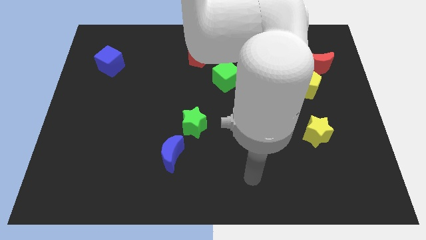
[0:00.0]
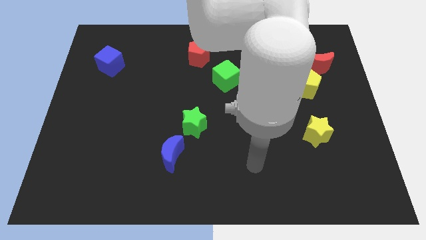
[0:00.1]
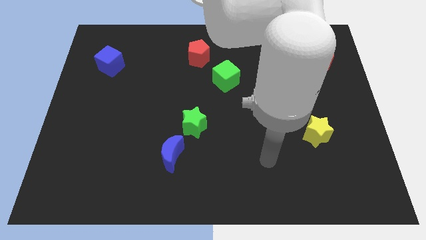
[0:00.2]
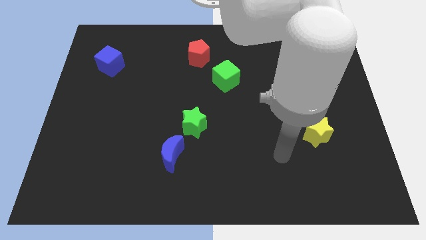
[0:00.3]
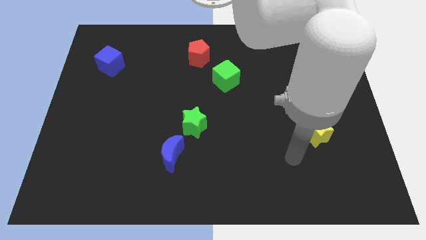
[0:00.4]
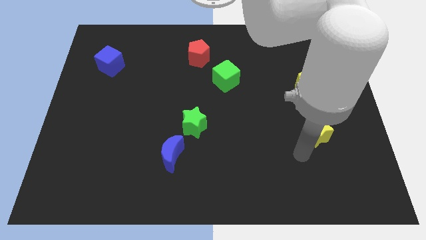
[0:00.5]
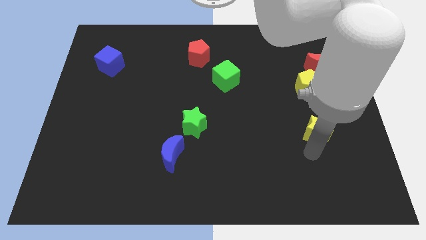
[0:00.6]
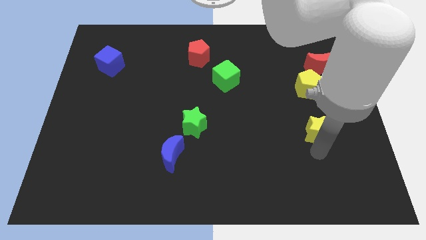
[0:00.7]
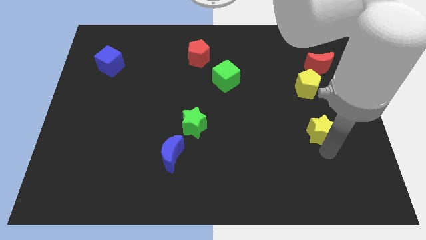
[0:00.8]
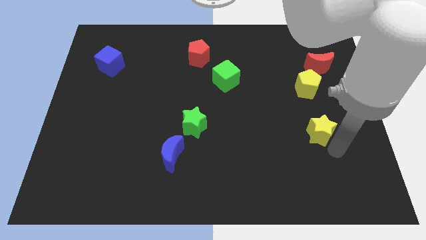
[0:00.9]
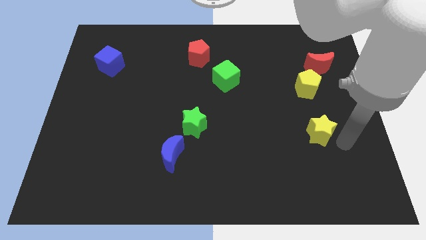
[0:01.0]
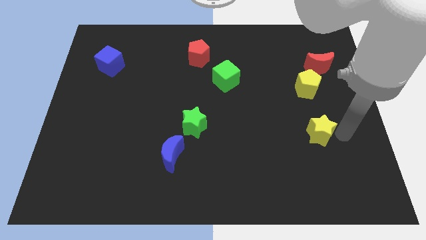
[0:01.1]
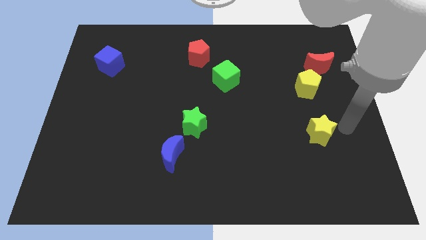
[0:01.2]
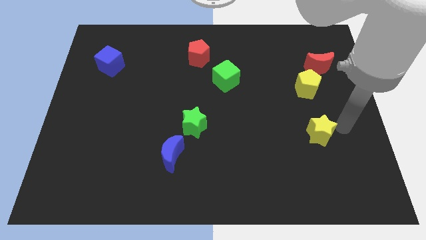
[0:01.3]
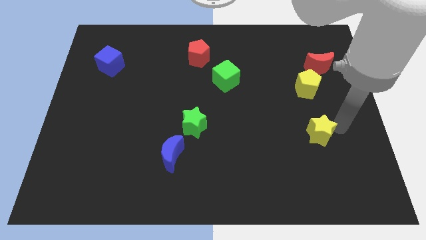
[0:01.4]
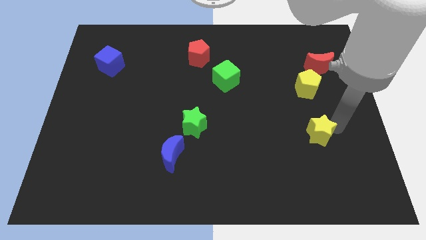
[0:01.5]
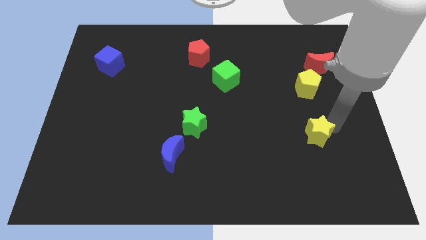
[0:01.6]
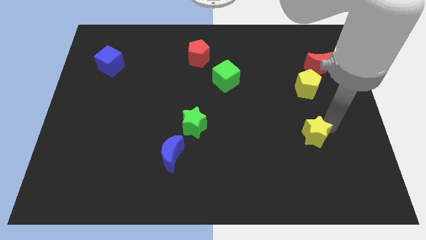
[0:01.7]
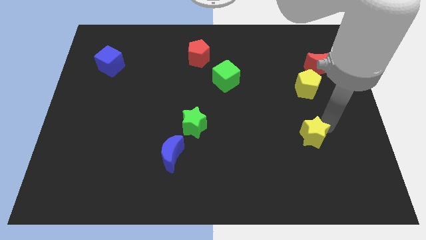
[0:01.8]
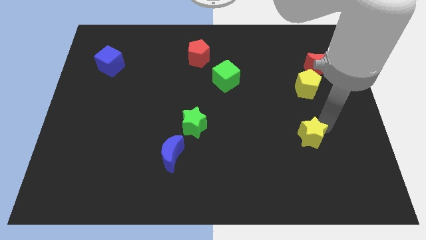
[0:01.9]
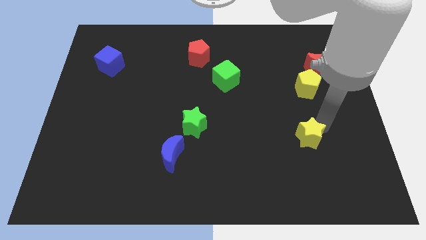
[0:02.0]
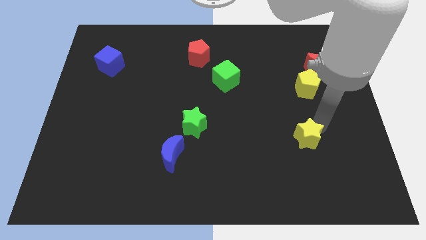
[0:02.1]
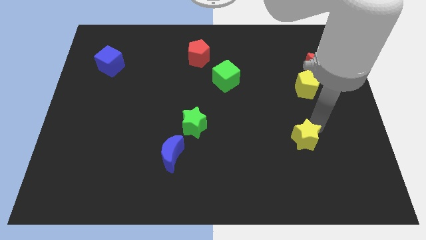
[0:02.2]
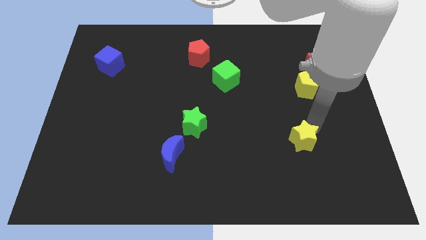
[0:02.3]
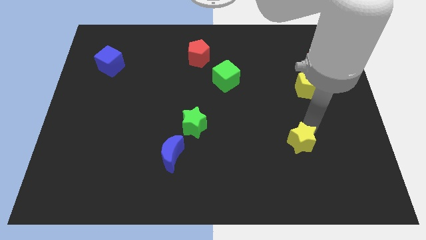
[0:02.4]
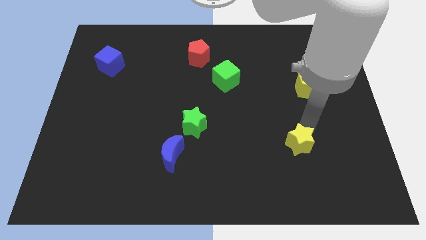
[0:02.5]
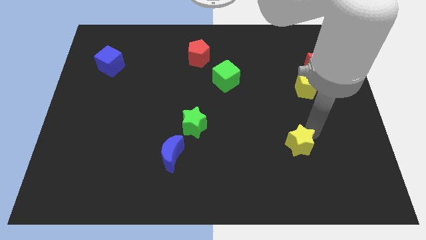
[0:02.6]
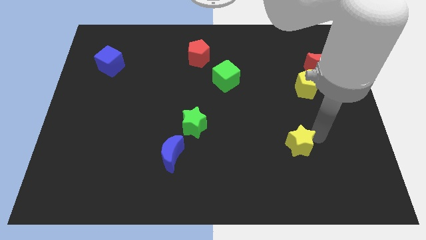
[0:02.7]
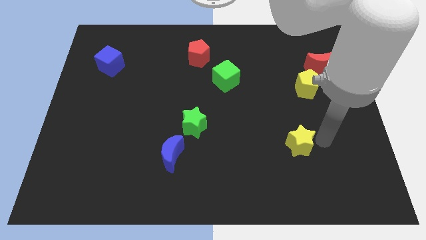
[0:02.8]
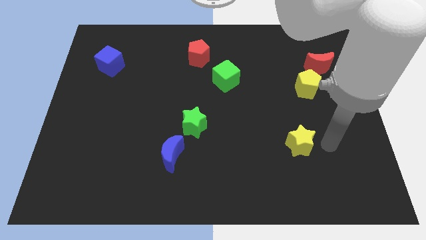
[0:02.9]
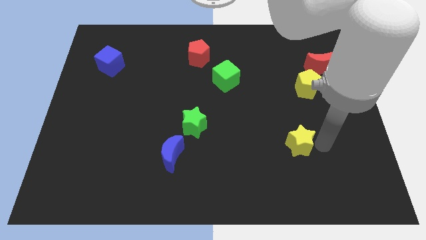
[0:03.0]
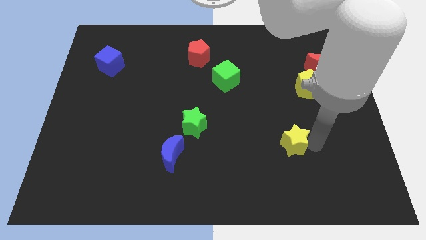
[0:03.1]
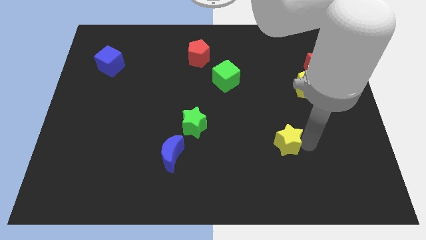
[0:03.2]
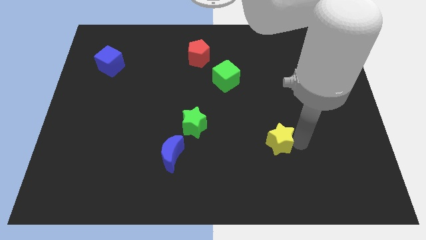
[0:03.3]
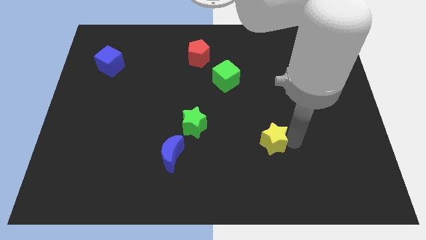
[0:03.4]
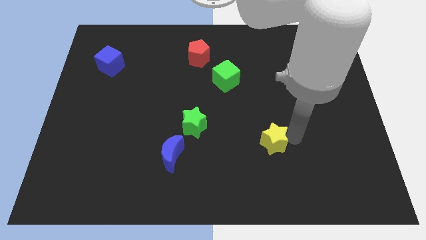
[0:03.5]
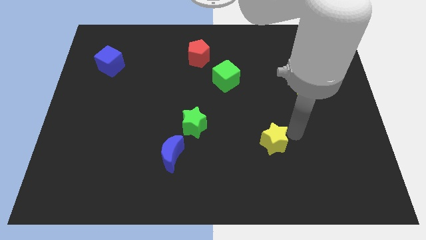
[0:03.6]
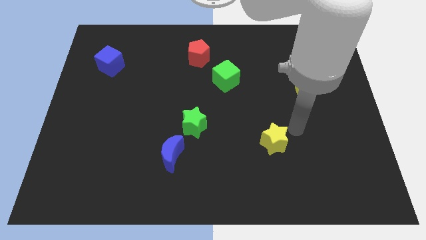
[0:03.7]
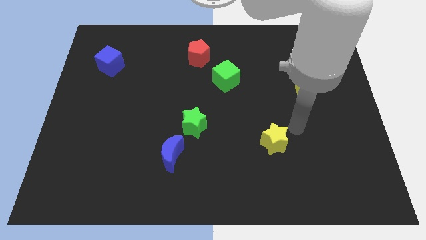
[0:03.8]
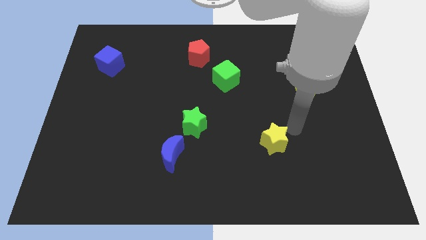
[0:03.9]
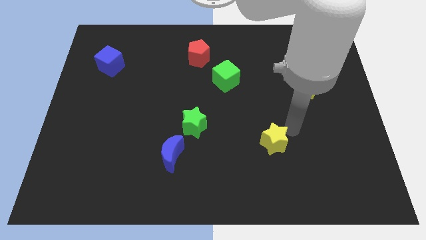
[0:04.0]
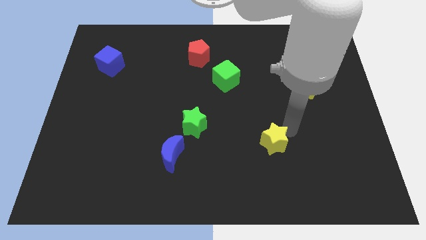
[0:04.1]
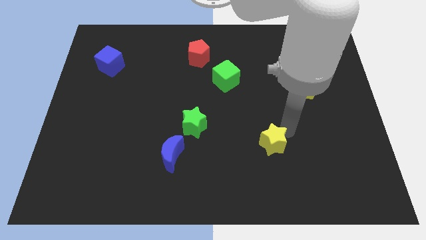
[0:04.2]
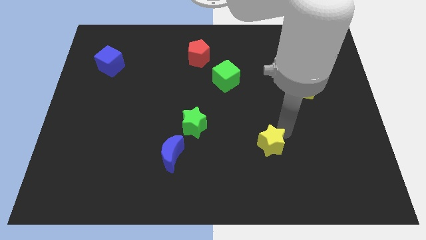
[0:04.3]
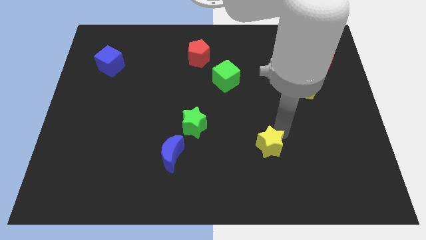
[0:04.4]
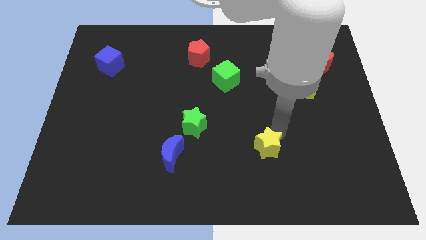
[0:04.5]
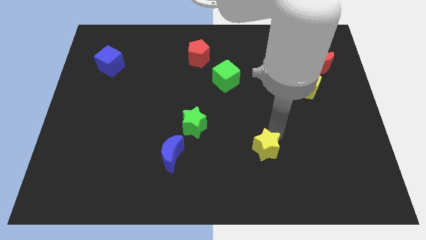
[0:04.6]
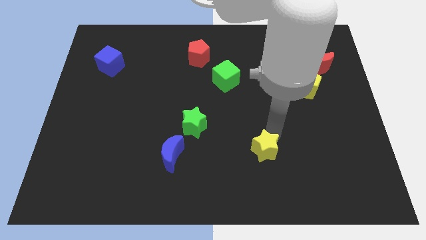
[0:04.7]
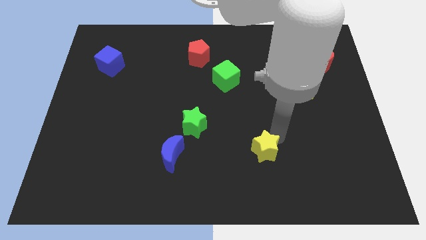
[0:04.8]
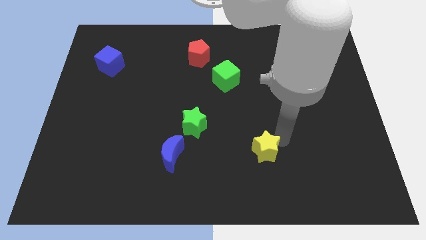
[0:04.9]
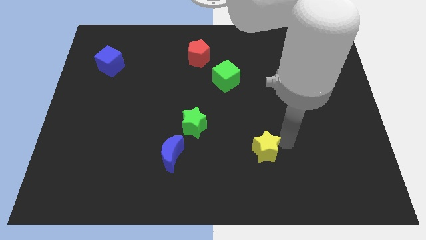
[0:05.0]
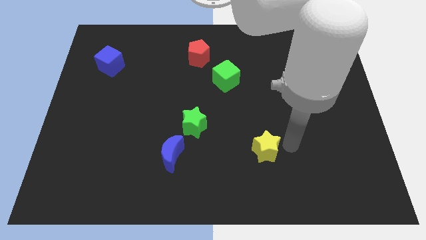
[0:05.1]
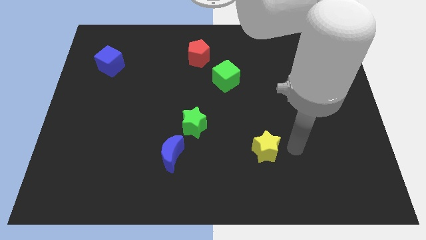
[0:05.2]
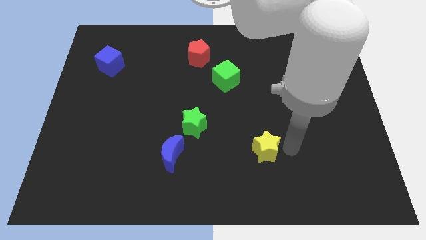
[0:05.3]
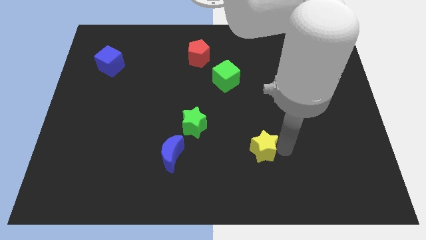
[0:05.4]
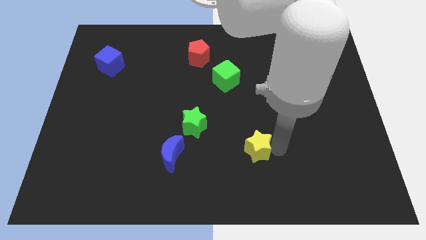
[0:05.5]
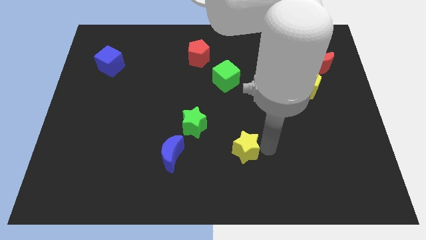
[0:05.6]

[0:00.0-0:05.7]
push the yellow star right of the blue moon

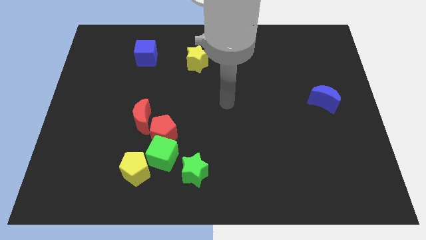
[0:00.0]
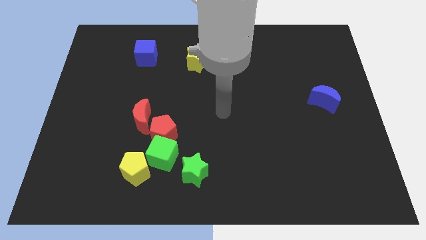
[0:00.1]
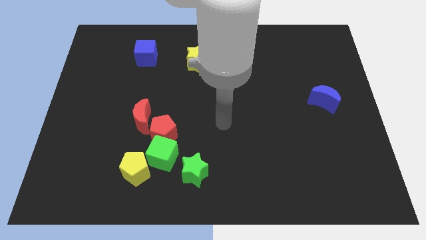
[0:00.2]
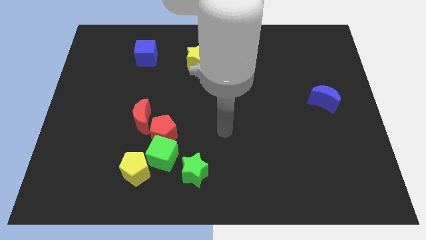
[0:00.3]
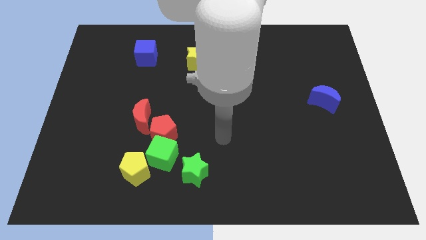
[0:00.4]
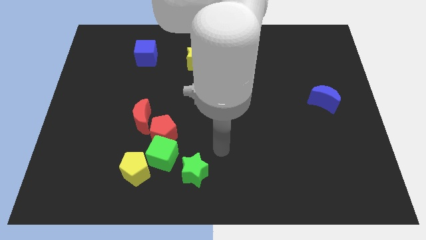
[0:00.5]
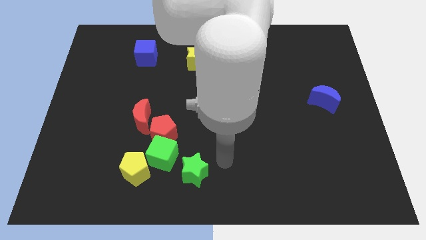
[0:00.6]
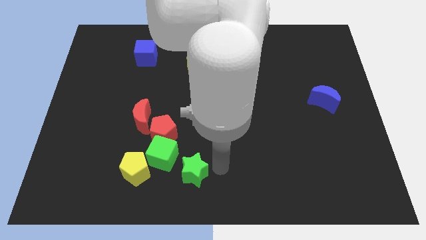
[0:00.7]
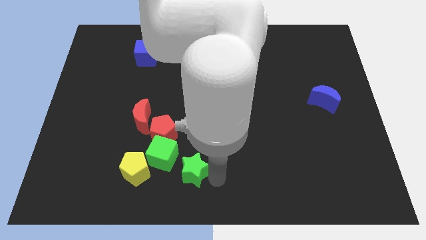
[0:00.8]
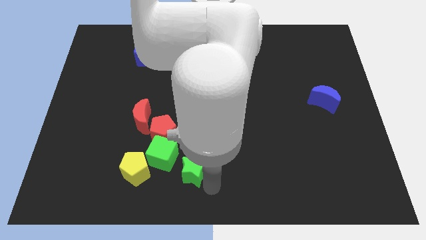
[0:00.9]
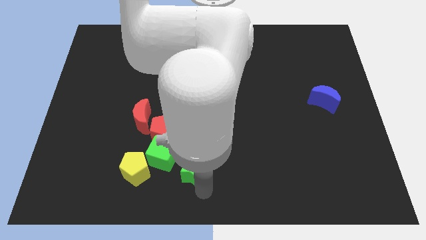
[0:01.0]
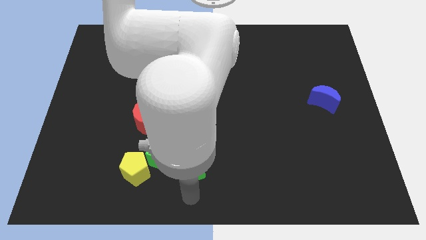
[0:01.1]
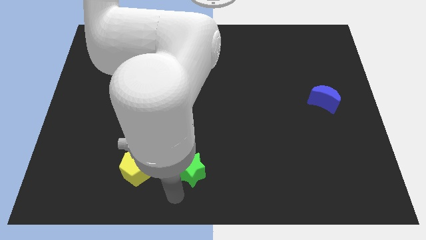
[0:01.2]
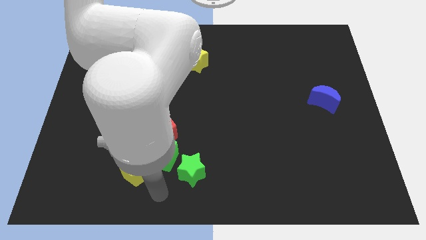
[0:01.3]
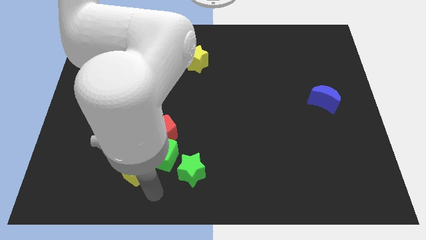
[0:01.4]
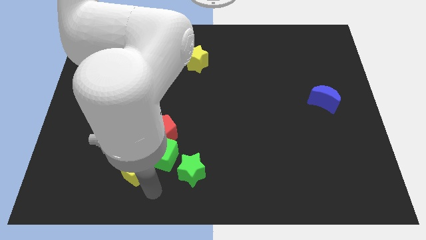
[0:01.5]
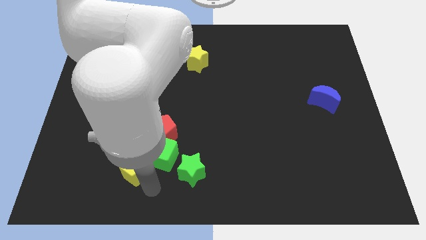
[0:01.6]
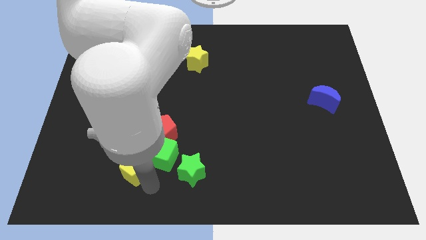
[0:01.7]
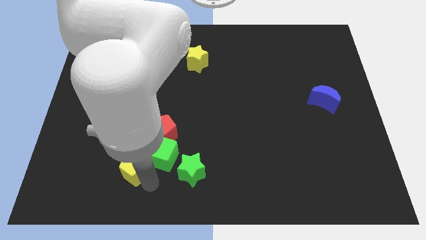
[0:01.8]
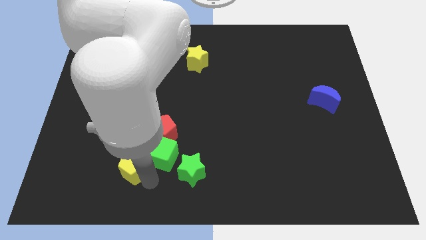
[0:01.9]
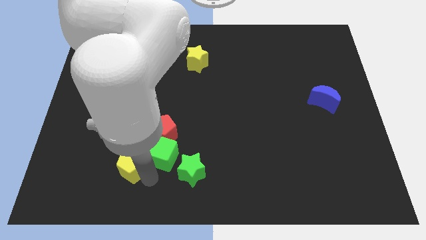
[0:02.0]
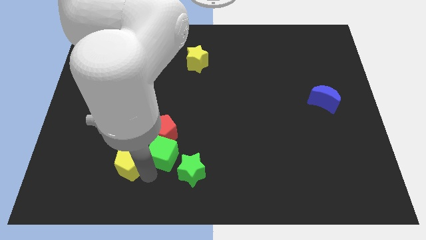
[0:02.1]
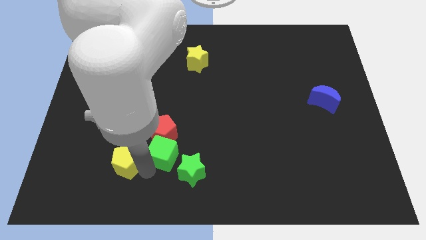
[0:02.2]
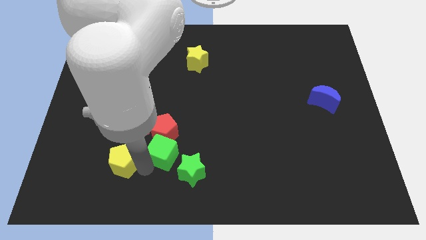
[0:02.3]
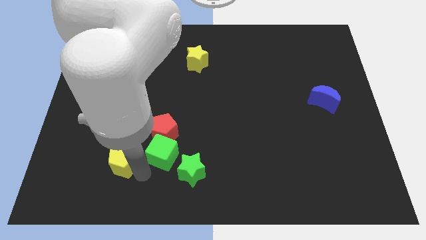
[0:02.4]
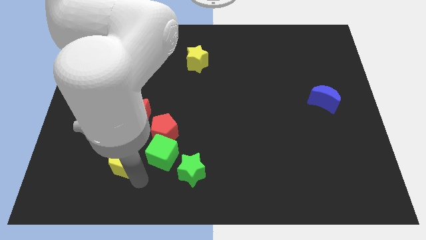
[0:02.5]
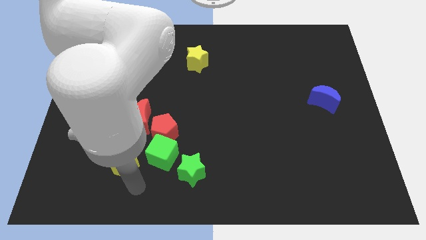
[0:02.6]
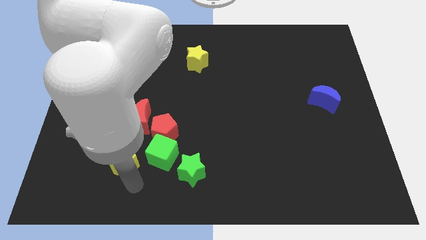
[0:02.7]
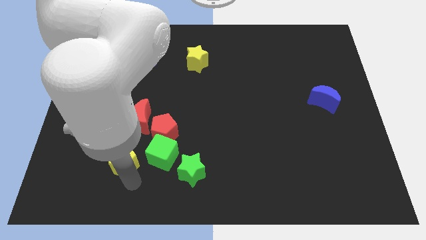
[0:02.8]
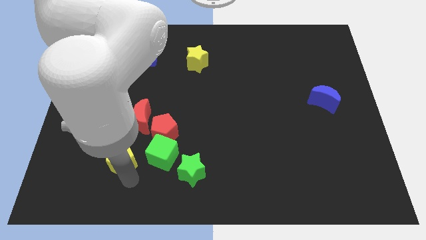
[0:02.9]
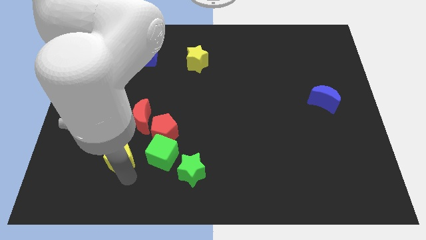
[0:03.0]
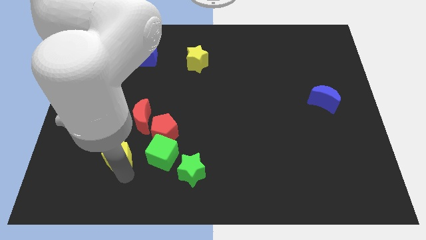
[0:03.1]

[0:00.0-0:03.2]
push the yellow pentagon diagonally down and to the left of the red moon
